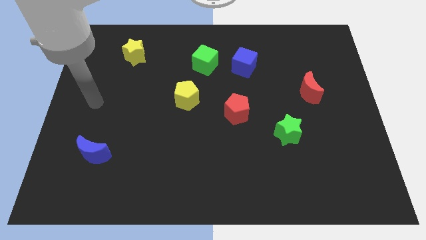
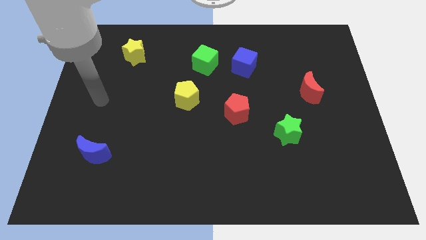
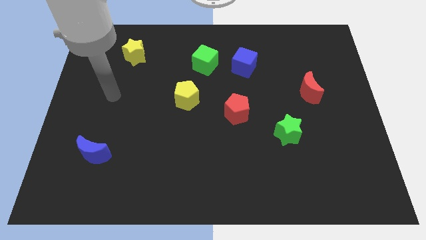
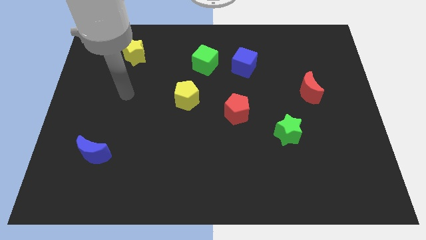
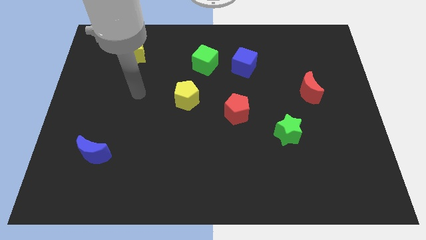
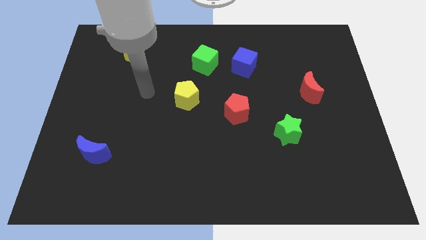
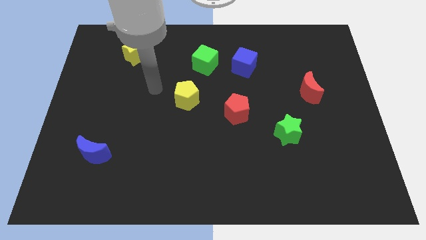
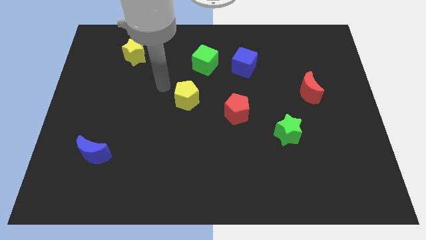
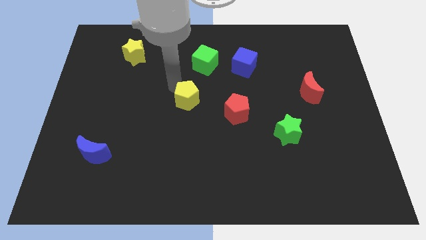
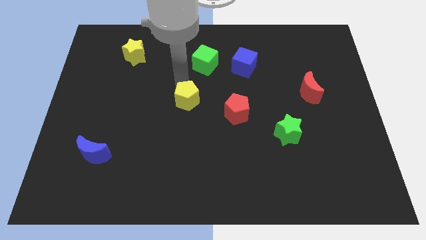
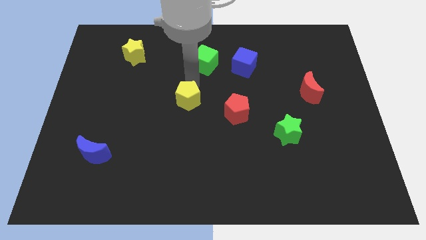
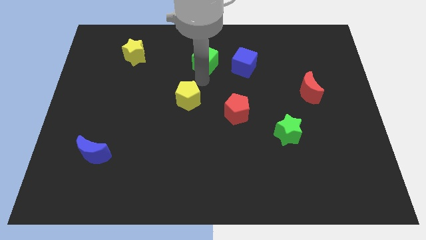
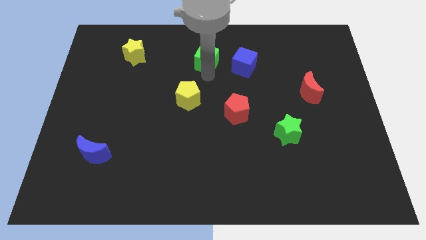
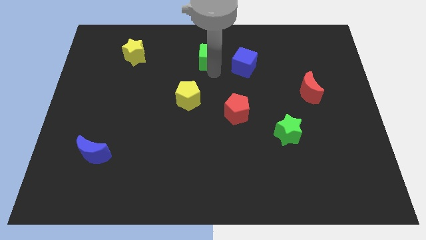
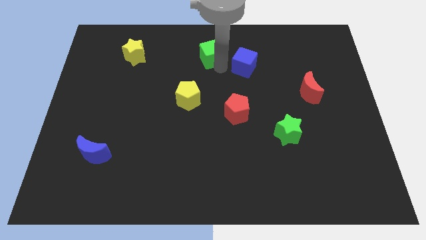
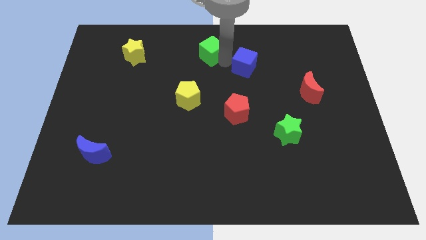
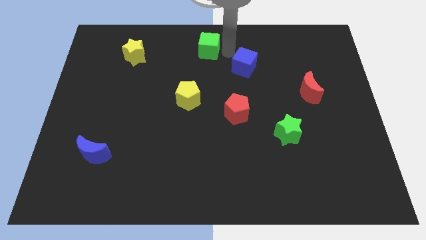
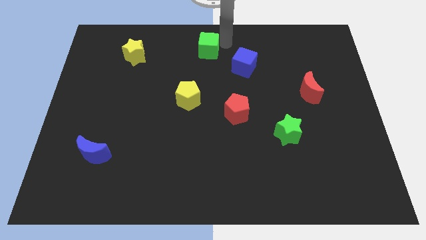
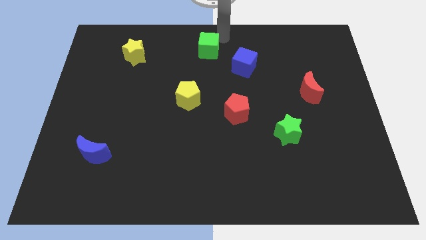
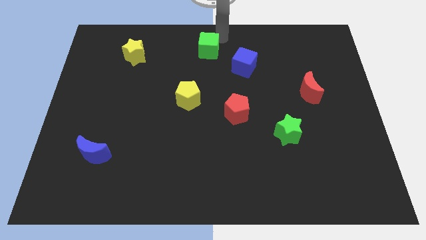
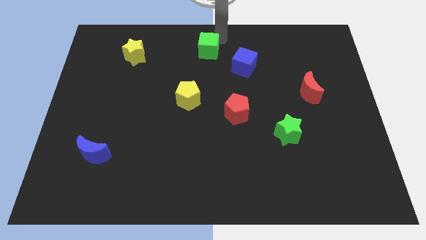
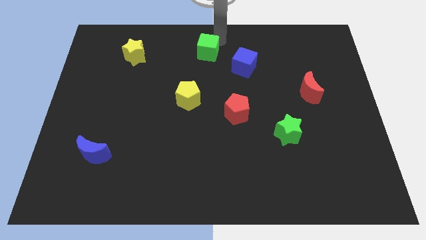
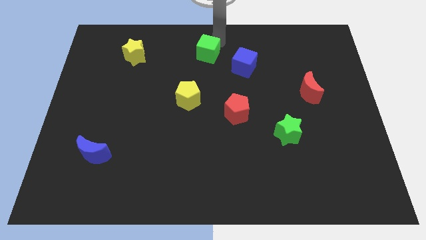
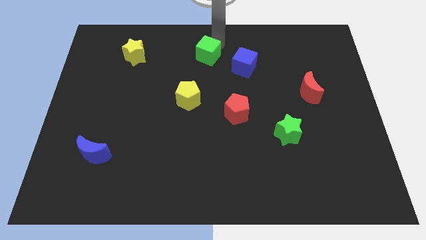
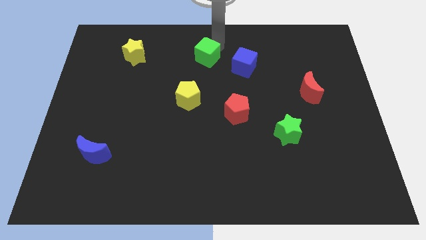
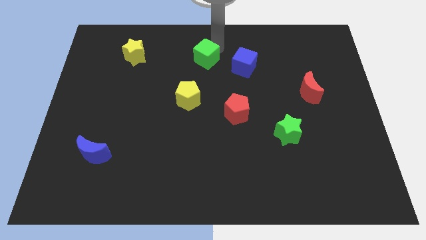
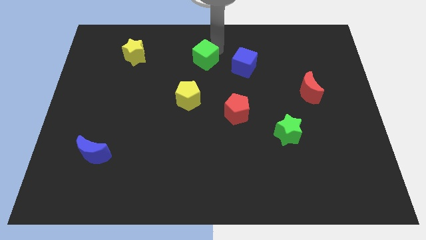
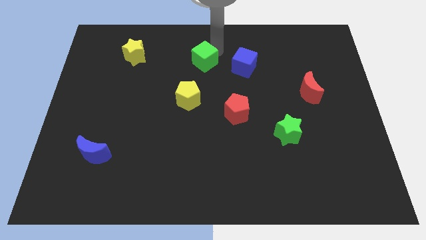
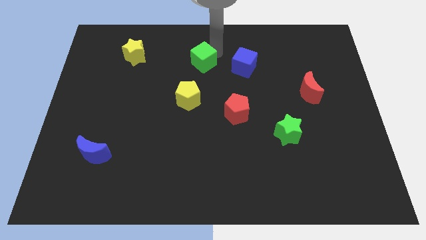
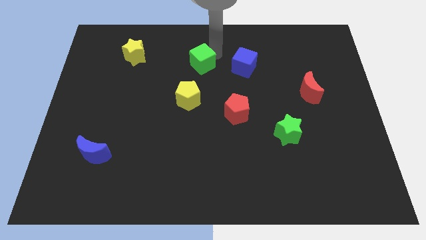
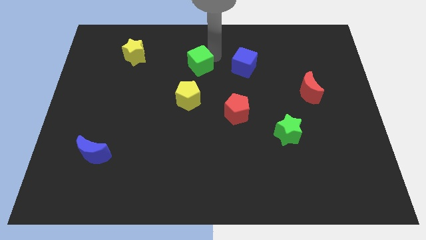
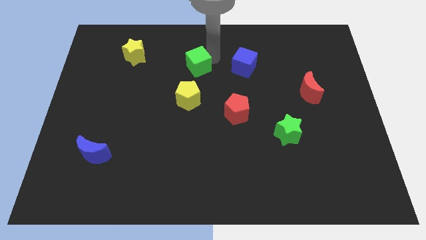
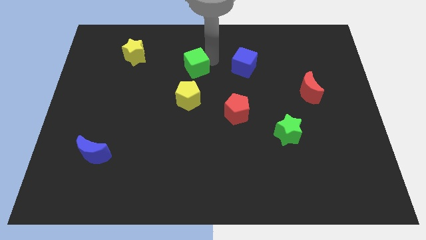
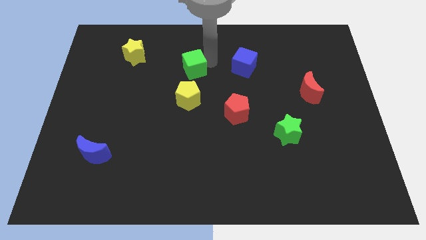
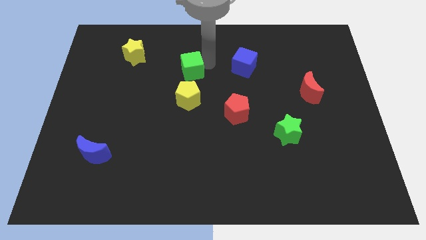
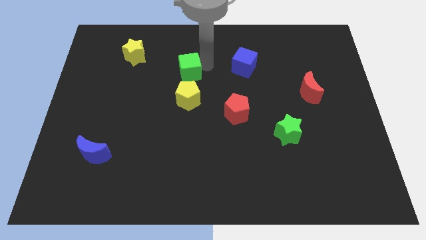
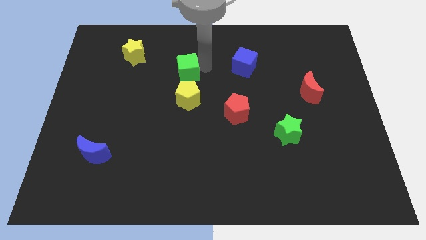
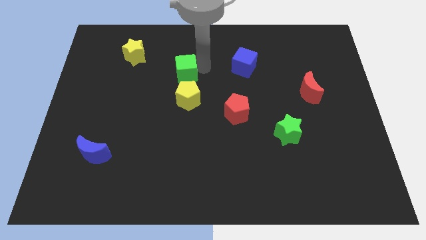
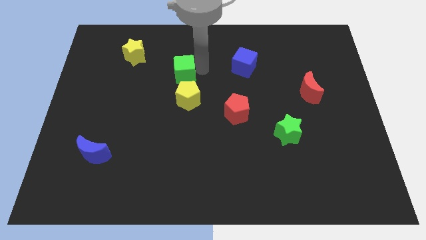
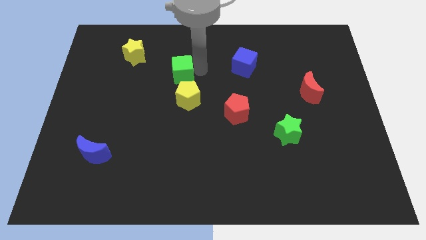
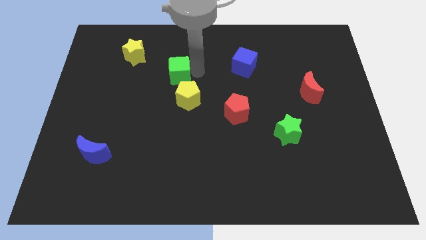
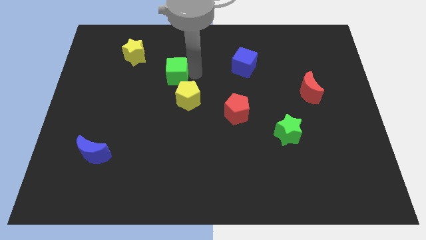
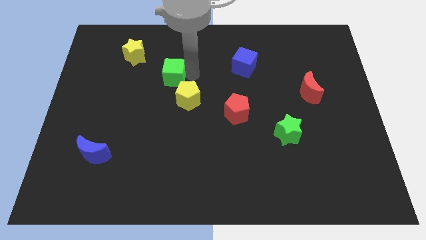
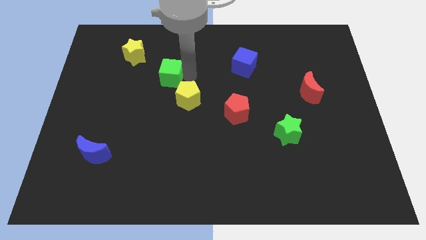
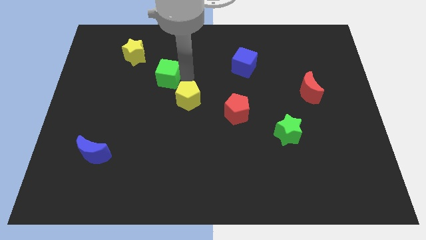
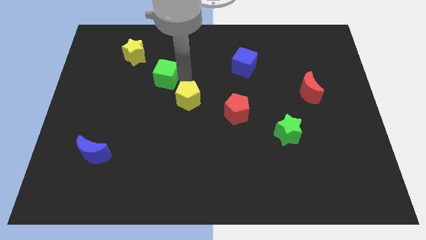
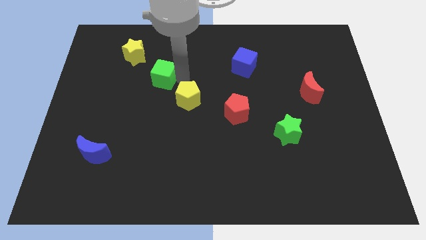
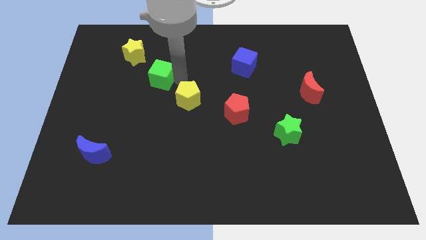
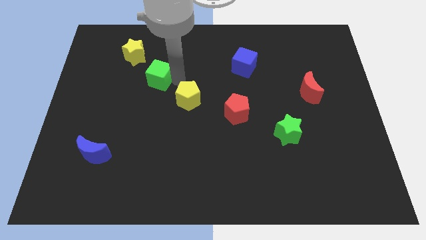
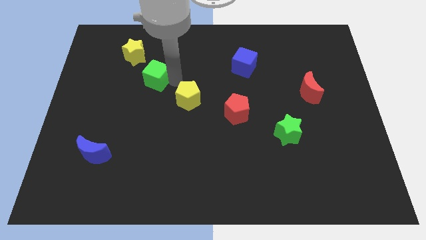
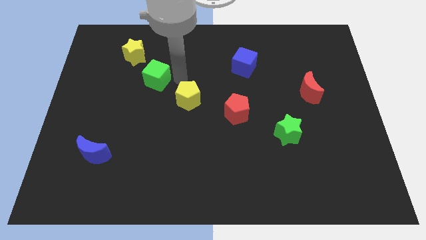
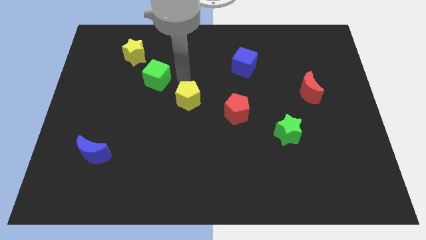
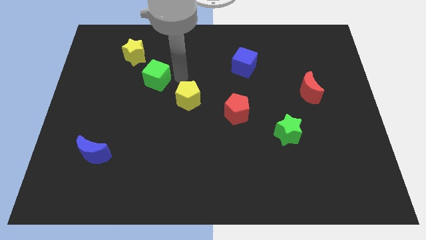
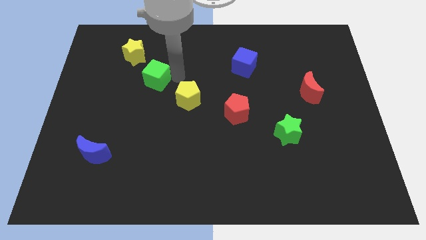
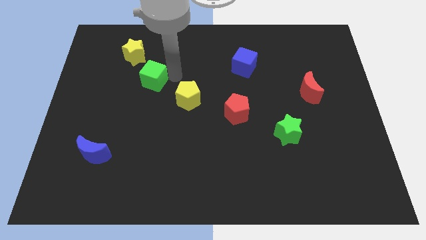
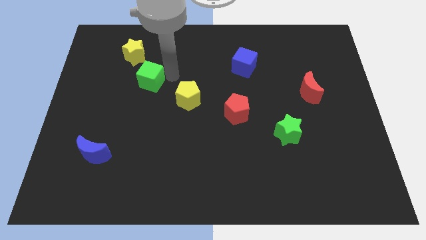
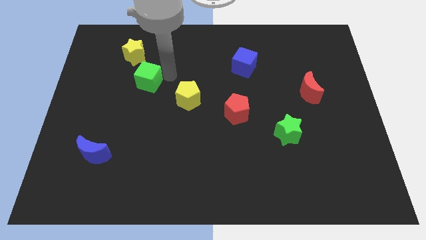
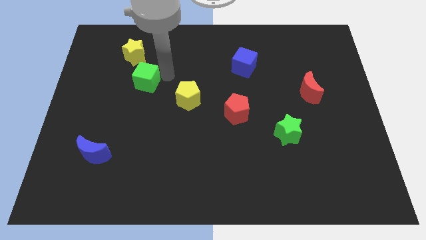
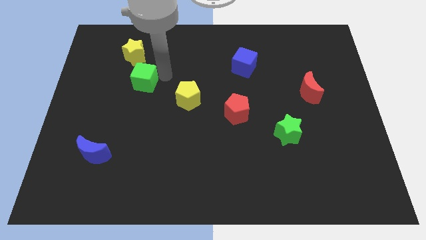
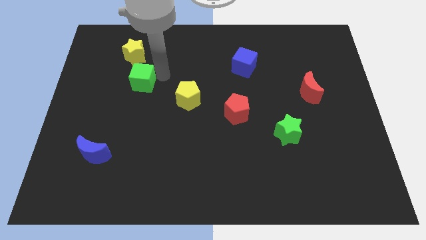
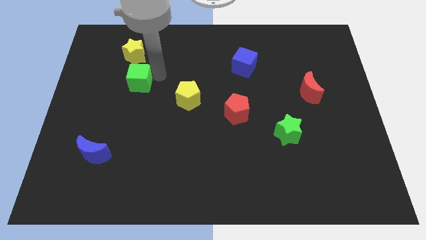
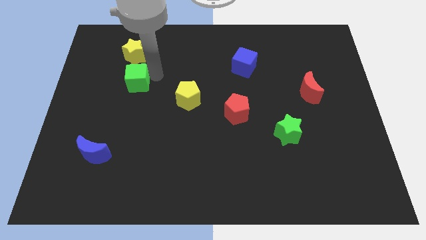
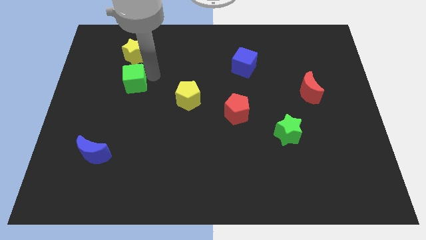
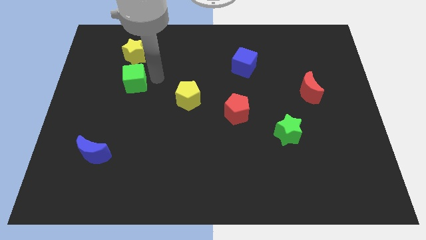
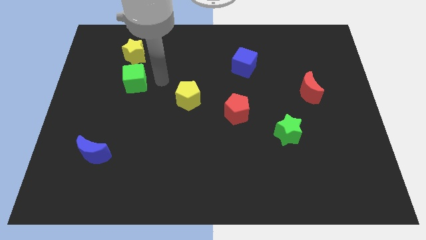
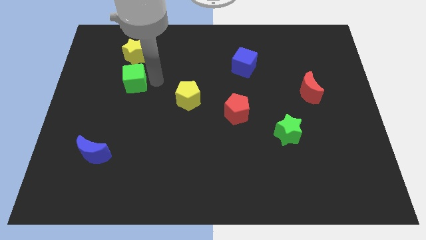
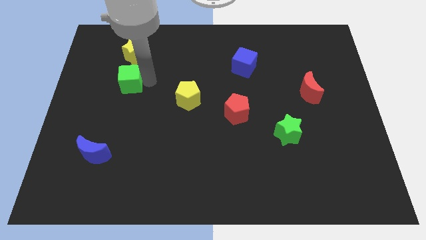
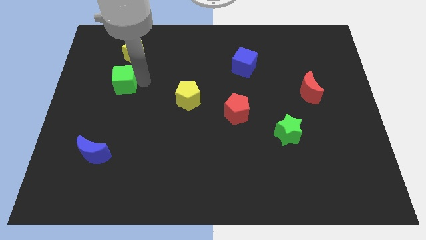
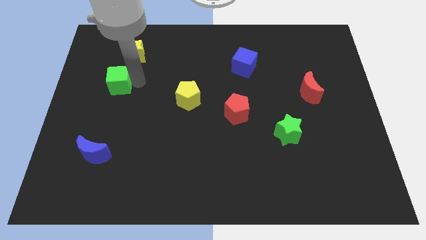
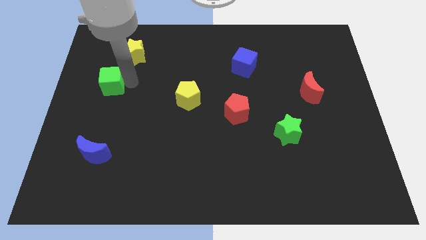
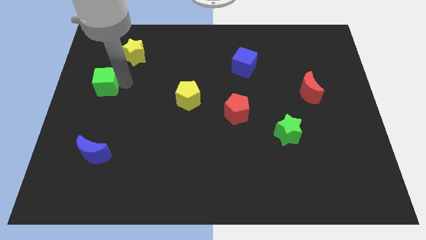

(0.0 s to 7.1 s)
put the green cube to the left side
